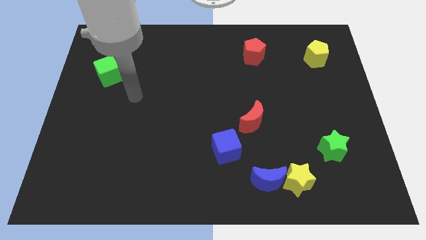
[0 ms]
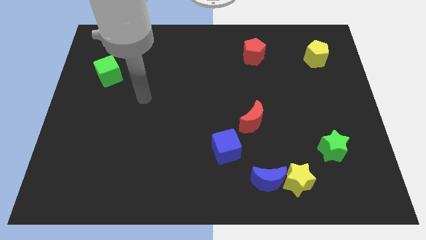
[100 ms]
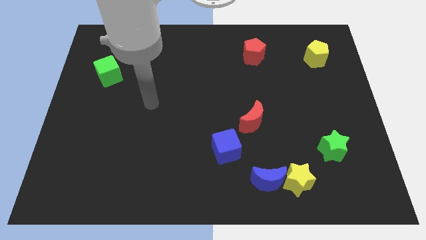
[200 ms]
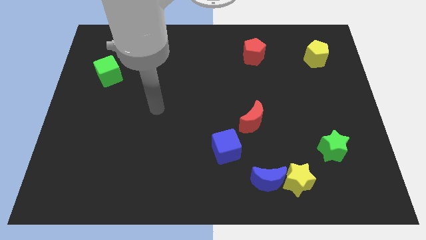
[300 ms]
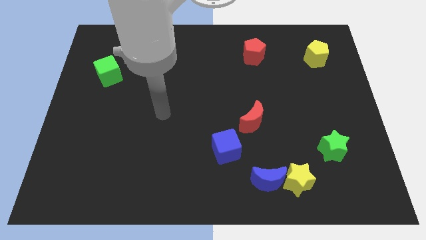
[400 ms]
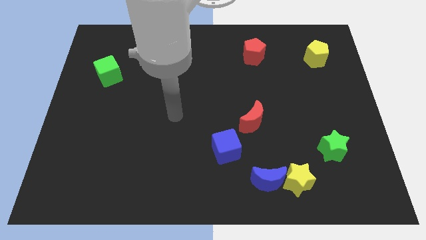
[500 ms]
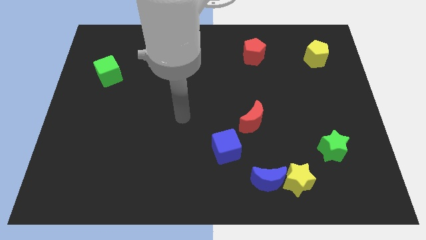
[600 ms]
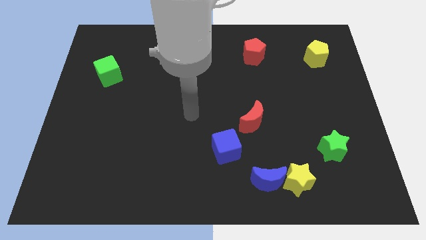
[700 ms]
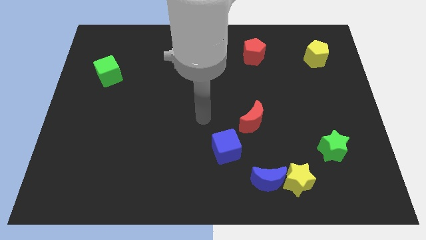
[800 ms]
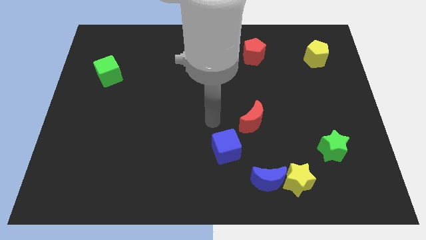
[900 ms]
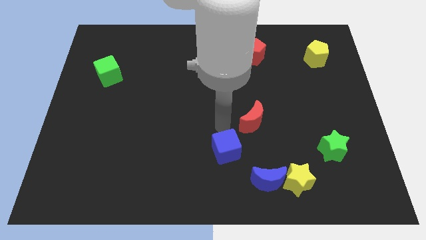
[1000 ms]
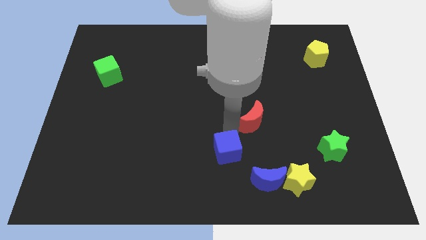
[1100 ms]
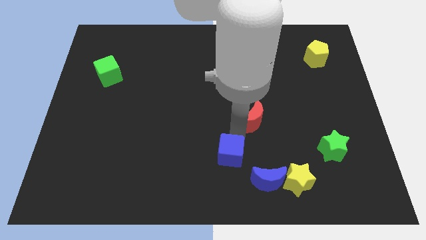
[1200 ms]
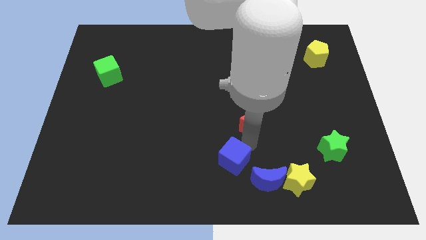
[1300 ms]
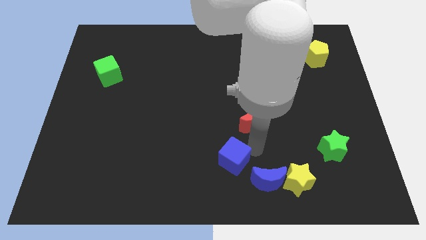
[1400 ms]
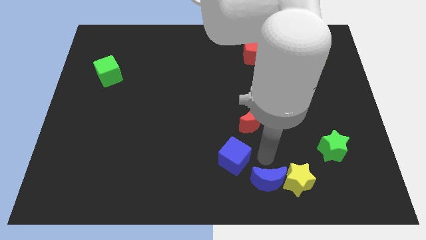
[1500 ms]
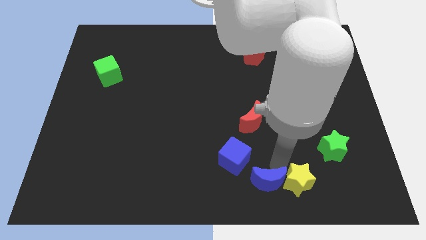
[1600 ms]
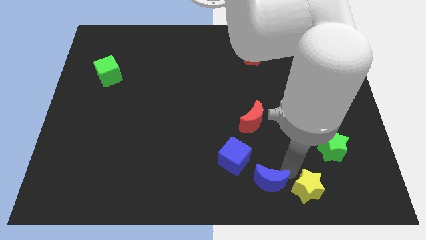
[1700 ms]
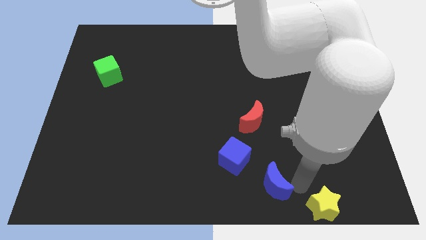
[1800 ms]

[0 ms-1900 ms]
move the blue moon away from the yellow star

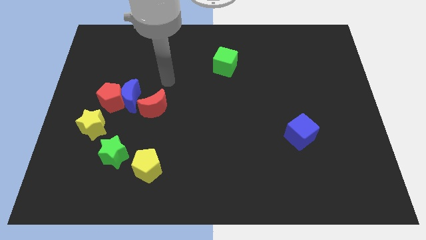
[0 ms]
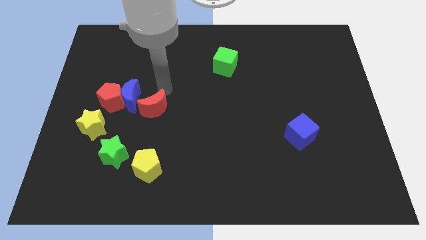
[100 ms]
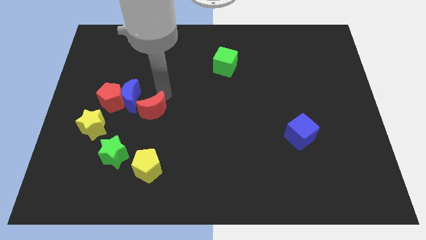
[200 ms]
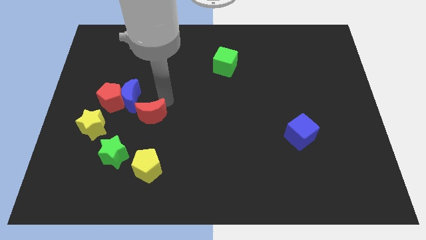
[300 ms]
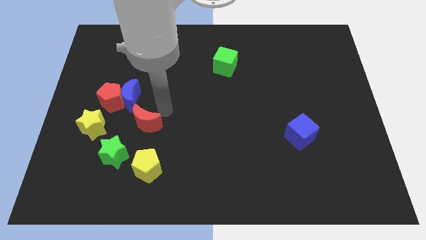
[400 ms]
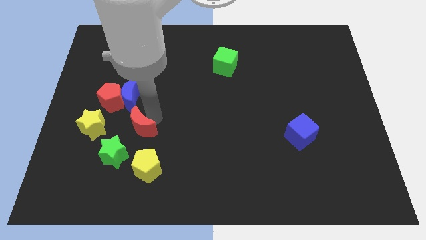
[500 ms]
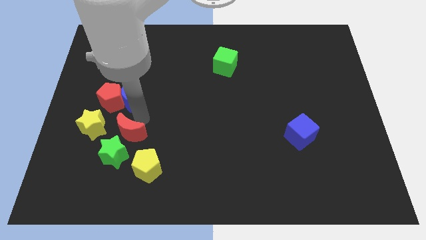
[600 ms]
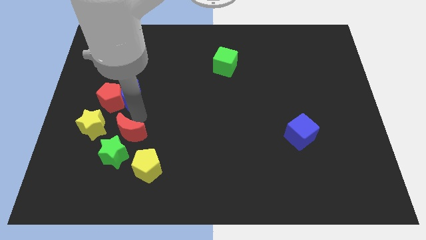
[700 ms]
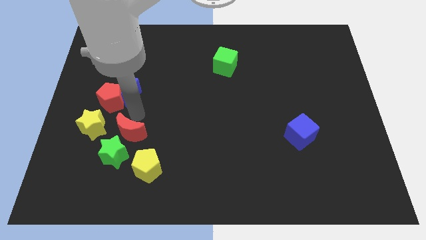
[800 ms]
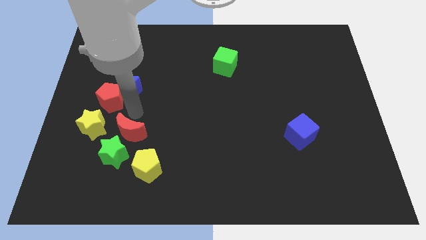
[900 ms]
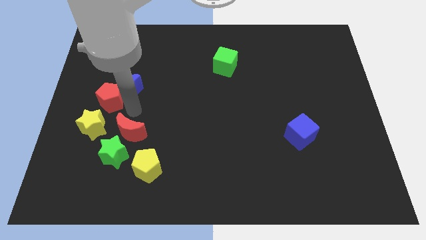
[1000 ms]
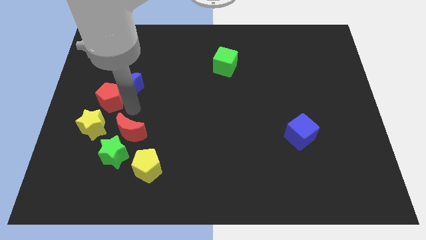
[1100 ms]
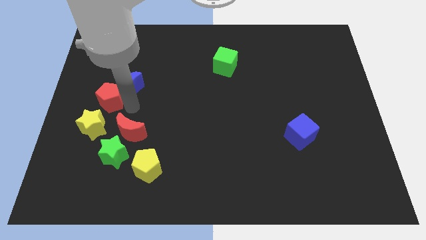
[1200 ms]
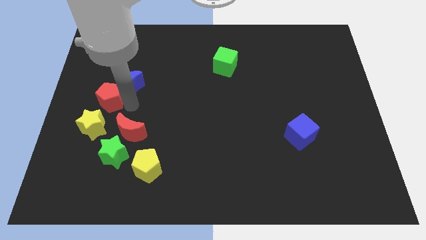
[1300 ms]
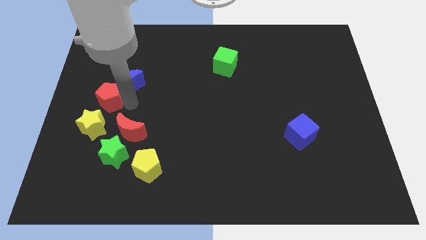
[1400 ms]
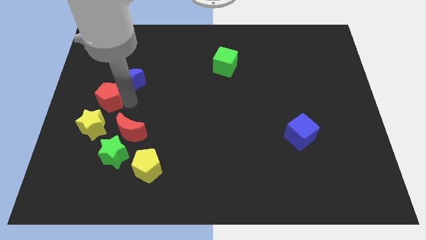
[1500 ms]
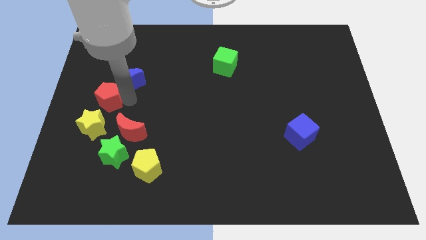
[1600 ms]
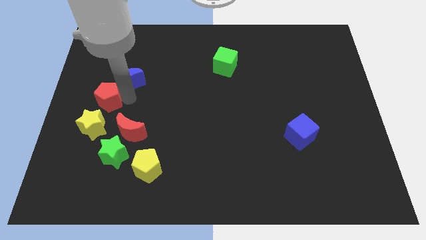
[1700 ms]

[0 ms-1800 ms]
pull the blue moon apart from the red pentagon and red moon

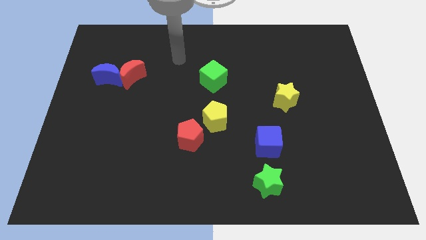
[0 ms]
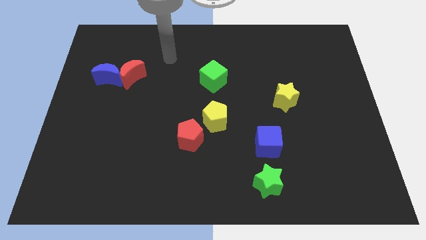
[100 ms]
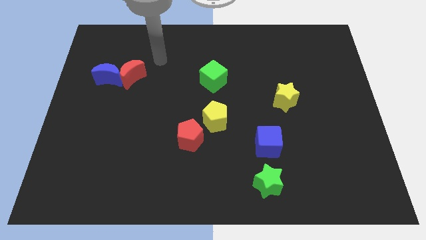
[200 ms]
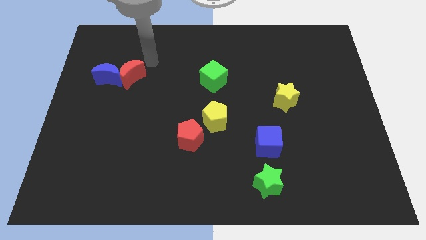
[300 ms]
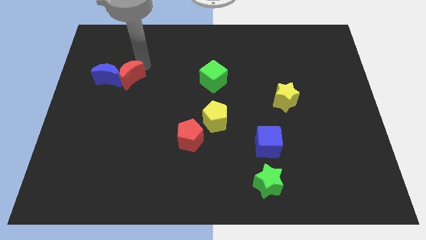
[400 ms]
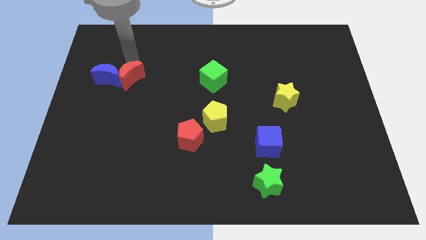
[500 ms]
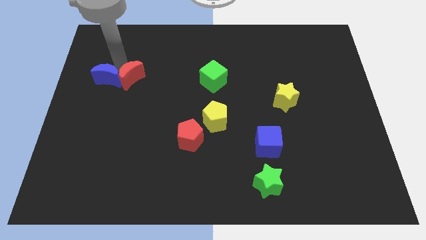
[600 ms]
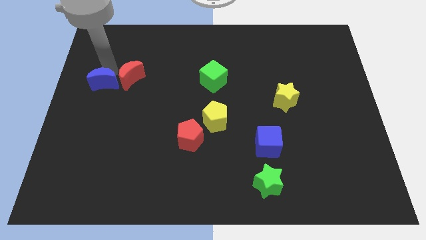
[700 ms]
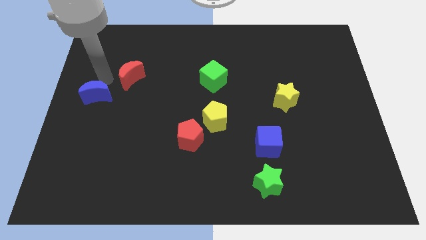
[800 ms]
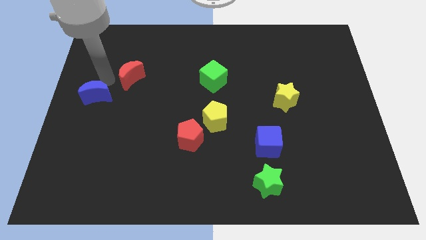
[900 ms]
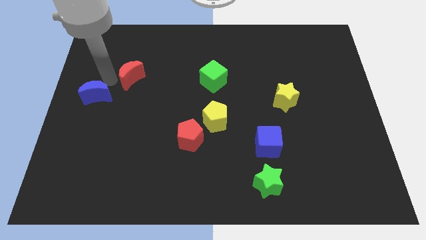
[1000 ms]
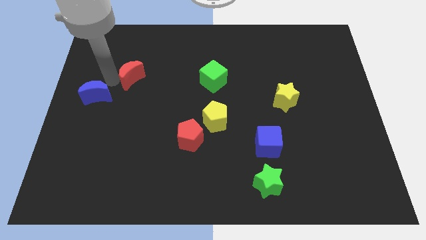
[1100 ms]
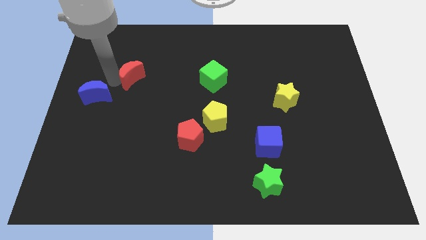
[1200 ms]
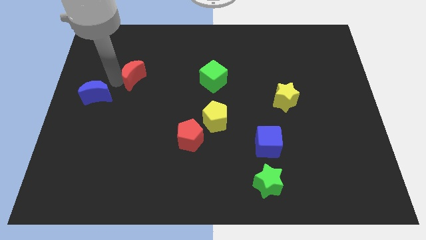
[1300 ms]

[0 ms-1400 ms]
pull the red moon apart from the blue moon

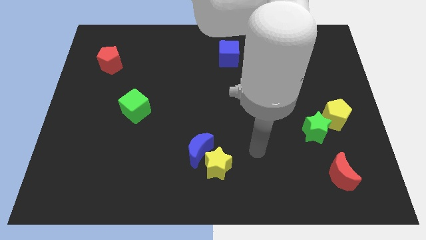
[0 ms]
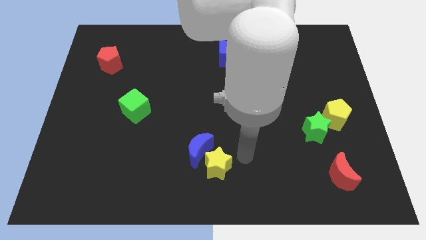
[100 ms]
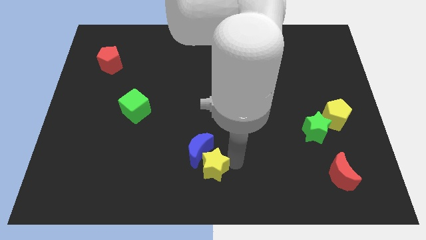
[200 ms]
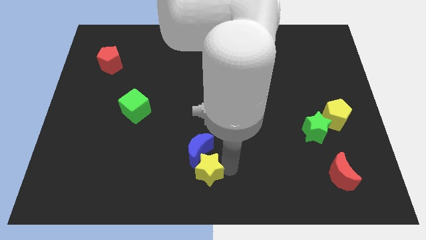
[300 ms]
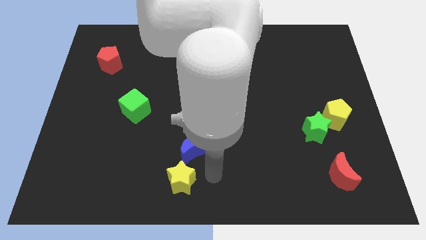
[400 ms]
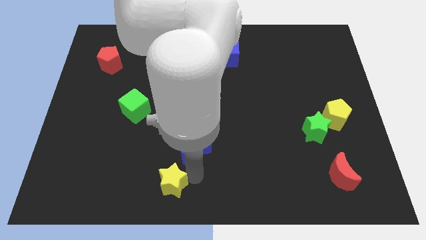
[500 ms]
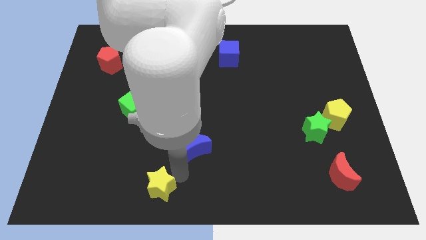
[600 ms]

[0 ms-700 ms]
separate the blue moon from the yellow star

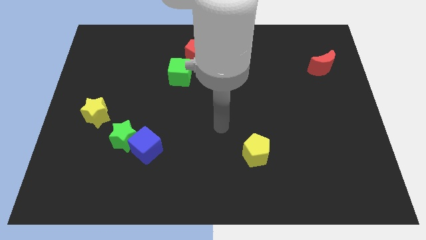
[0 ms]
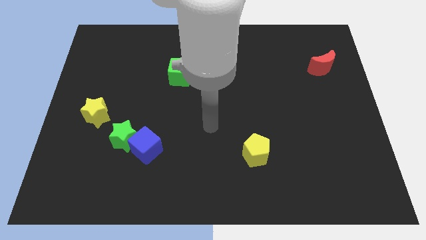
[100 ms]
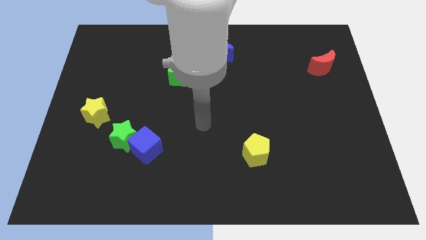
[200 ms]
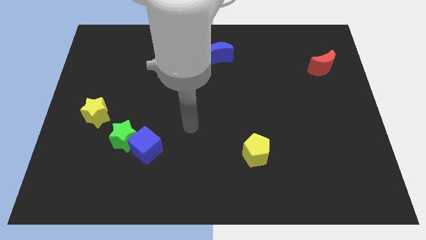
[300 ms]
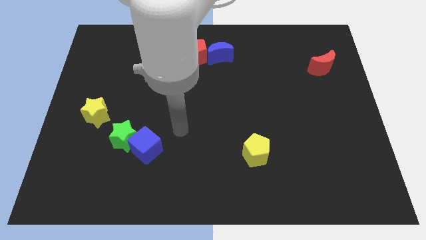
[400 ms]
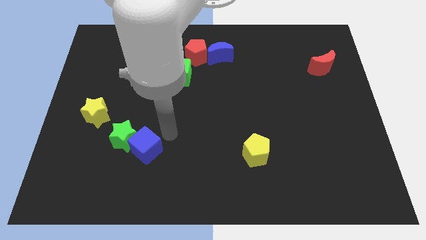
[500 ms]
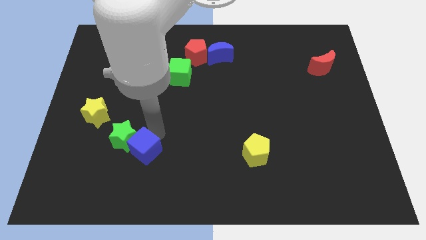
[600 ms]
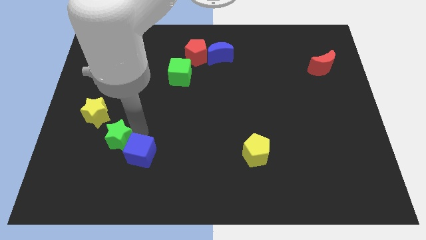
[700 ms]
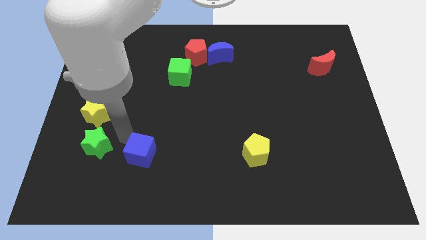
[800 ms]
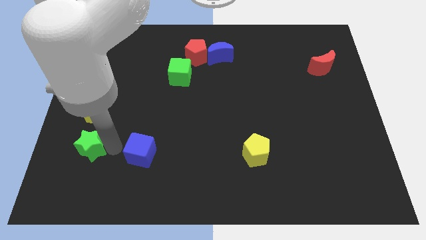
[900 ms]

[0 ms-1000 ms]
pull the blue cube apart from the green star

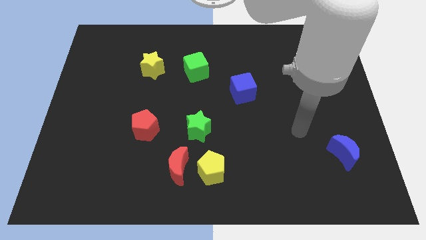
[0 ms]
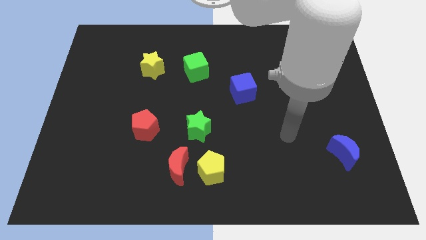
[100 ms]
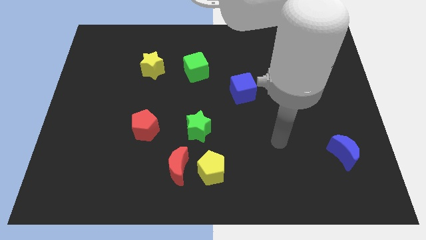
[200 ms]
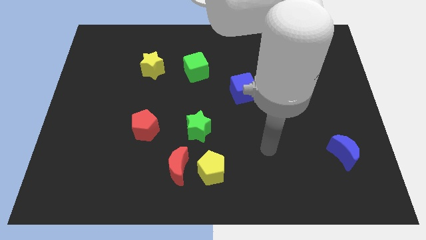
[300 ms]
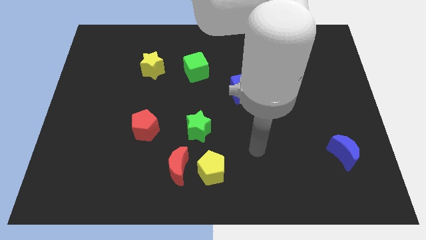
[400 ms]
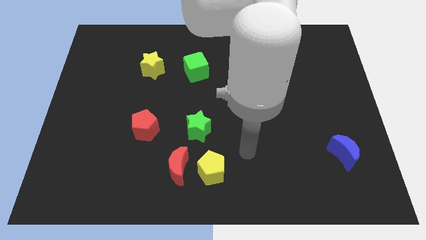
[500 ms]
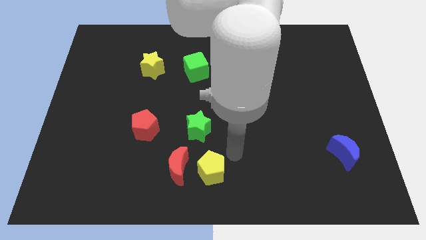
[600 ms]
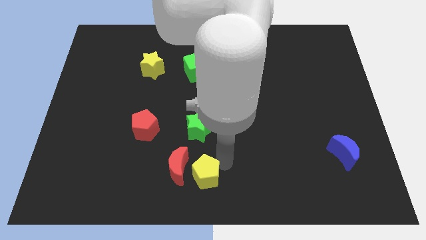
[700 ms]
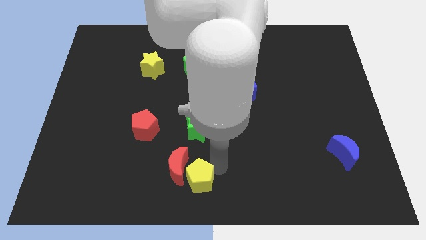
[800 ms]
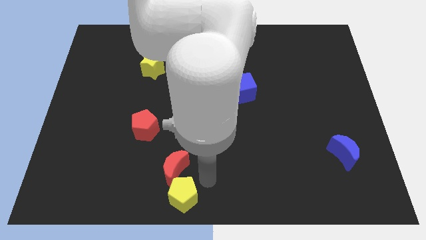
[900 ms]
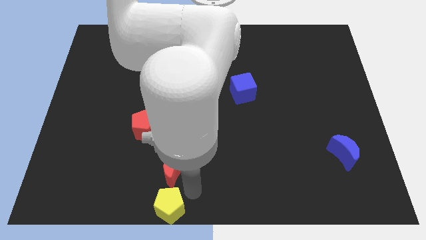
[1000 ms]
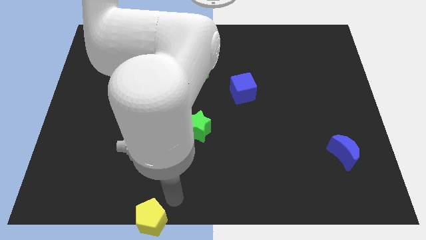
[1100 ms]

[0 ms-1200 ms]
separate the red moon from the yellow pentagon

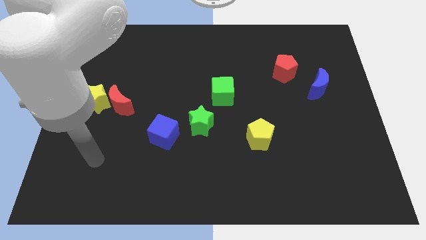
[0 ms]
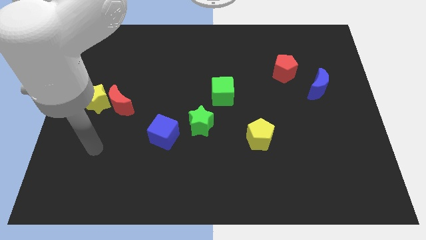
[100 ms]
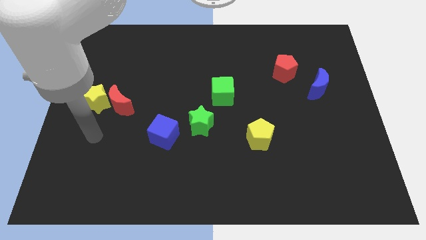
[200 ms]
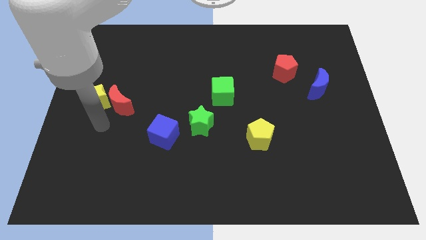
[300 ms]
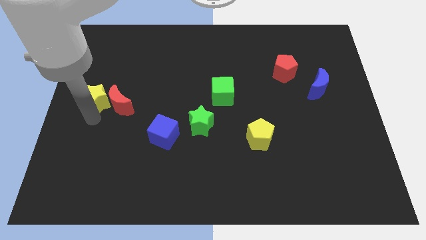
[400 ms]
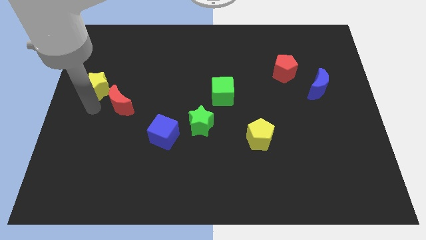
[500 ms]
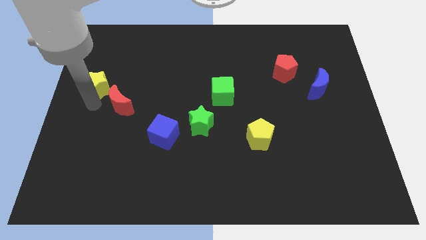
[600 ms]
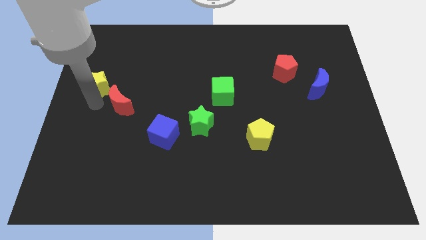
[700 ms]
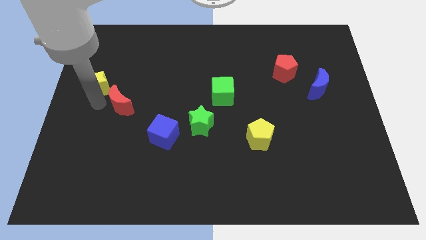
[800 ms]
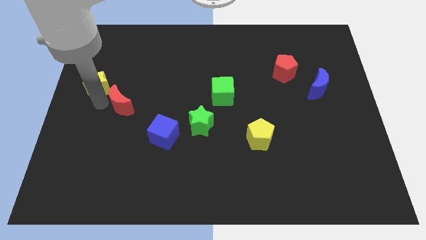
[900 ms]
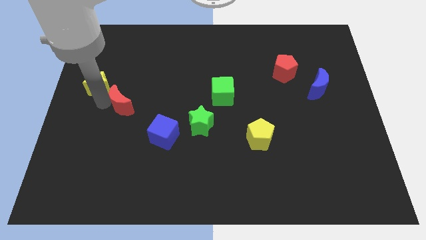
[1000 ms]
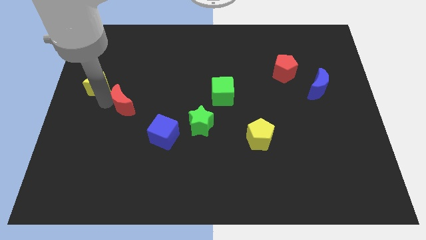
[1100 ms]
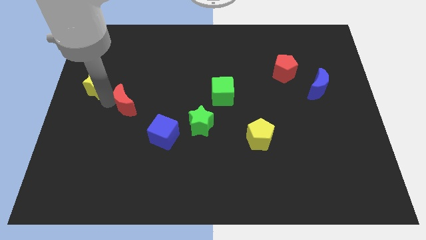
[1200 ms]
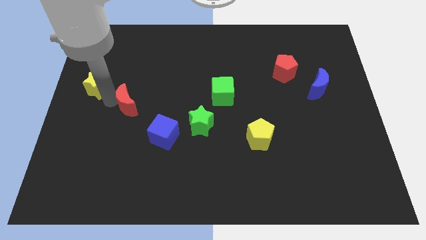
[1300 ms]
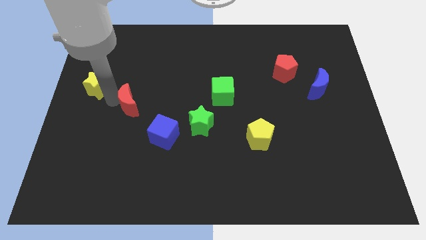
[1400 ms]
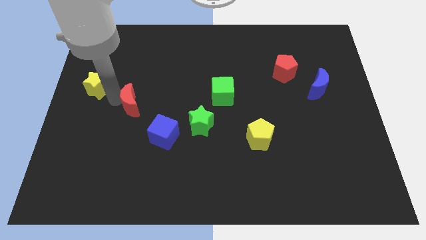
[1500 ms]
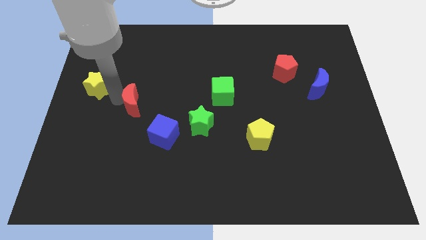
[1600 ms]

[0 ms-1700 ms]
separate the red moon from the yellow star
